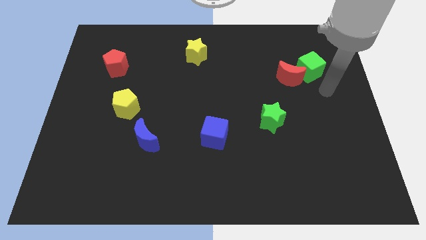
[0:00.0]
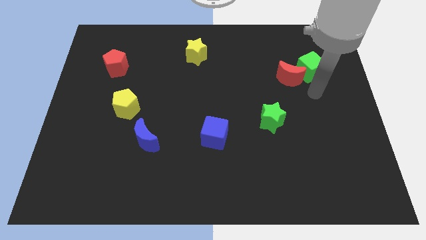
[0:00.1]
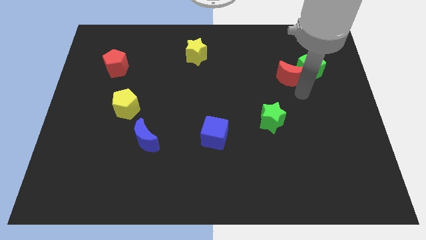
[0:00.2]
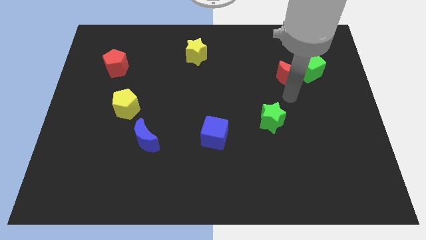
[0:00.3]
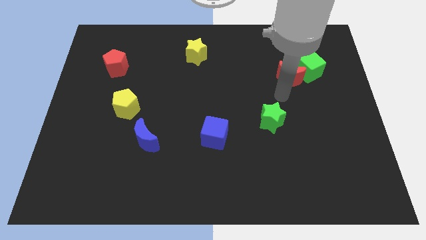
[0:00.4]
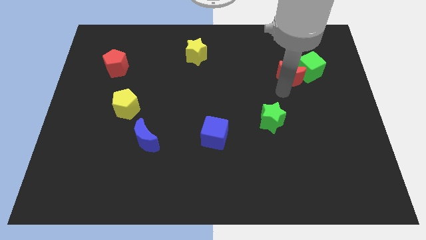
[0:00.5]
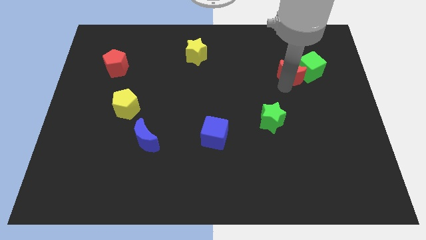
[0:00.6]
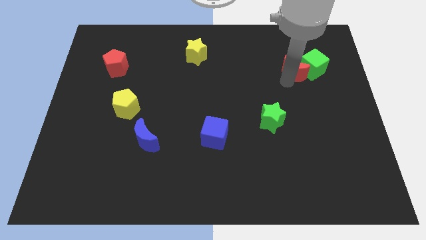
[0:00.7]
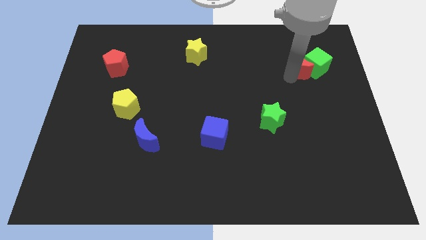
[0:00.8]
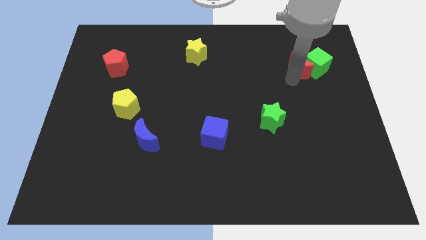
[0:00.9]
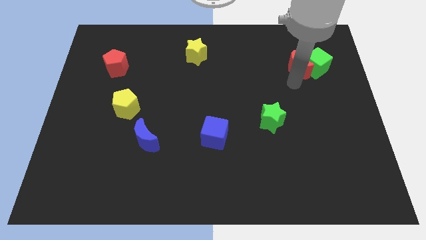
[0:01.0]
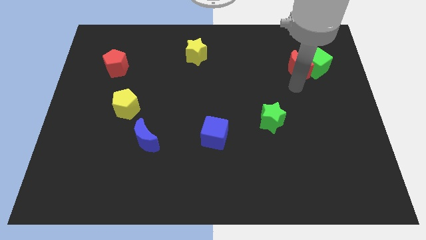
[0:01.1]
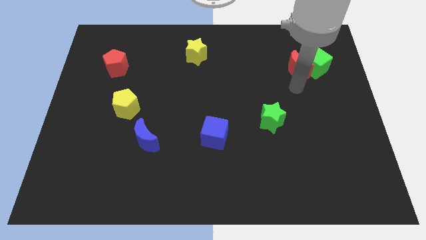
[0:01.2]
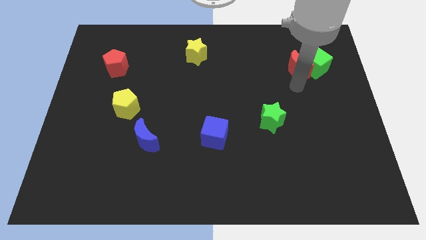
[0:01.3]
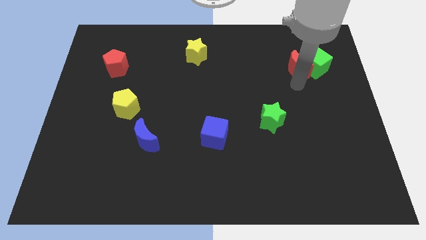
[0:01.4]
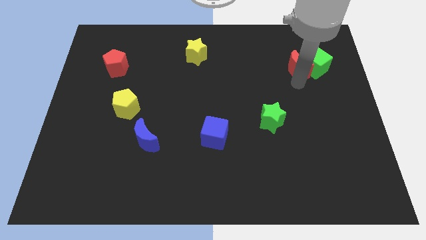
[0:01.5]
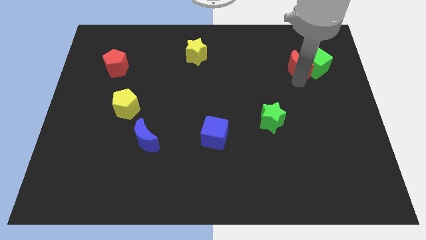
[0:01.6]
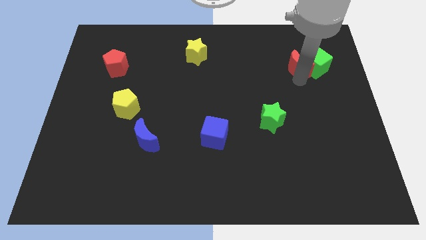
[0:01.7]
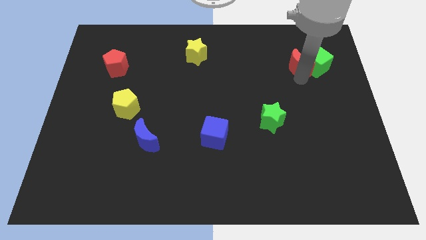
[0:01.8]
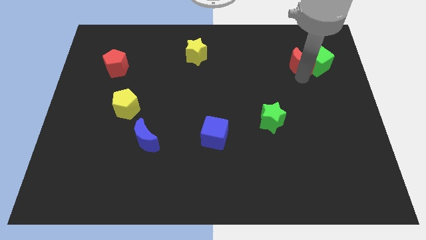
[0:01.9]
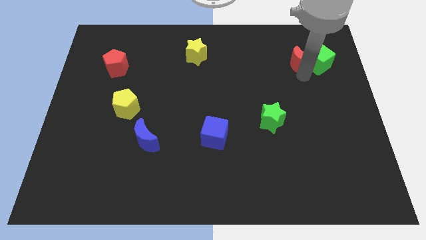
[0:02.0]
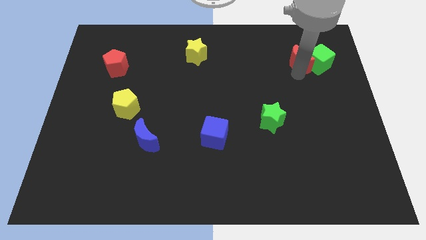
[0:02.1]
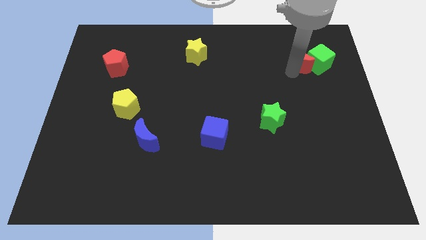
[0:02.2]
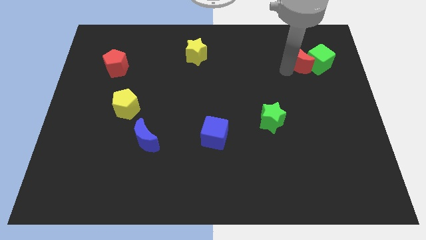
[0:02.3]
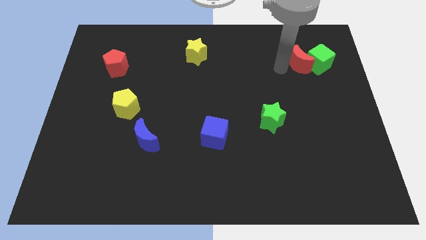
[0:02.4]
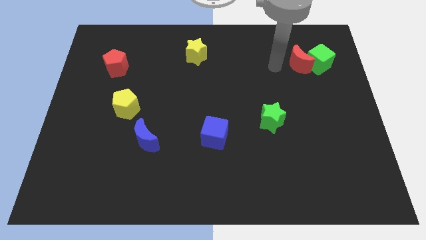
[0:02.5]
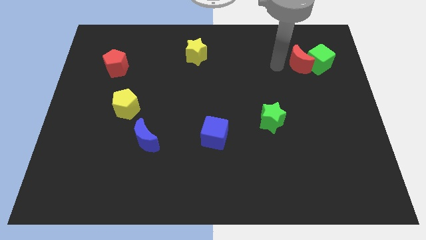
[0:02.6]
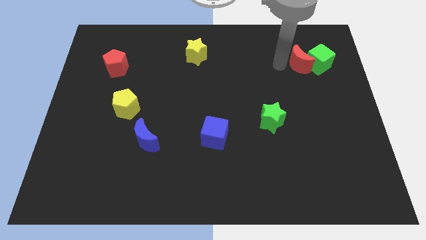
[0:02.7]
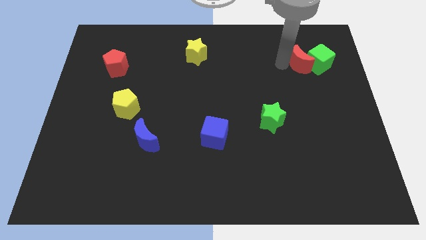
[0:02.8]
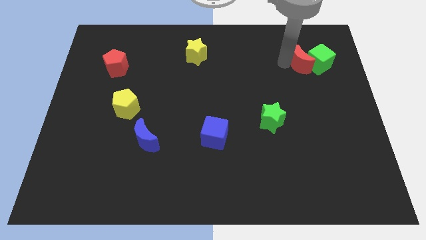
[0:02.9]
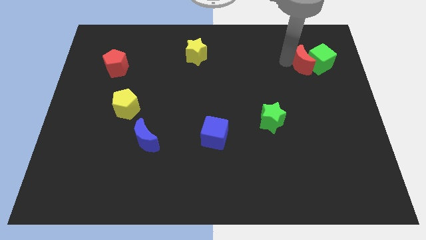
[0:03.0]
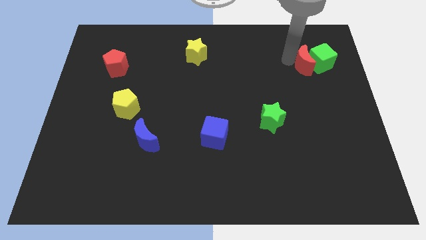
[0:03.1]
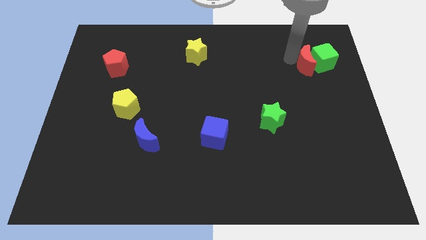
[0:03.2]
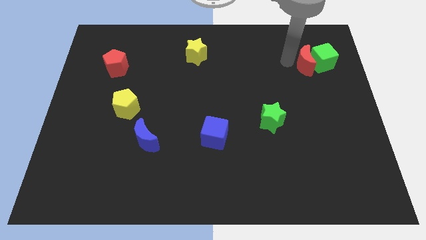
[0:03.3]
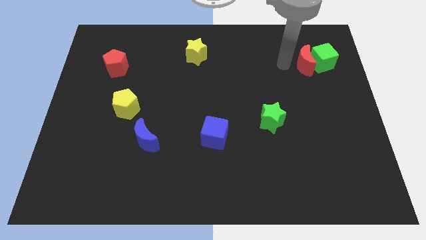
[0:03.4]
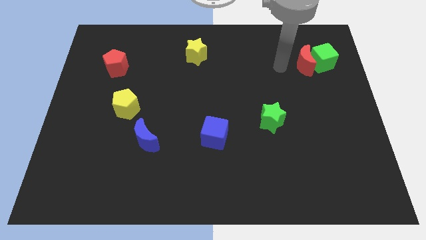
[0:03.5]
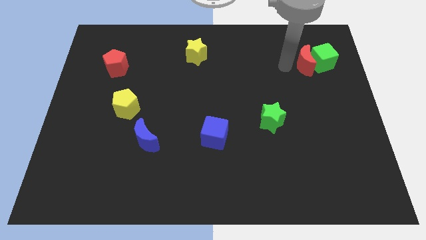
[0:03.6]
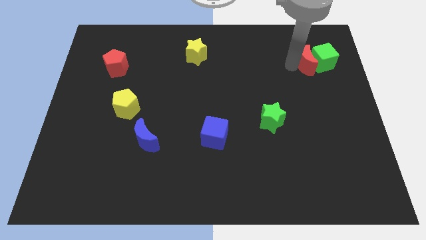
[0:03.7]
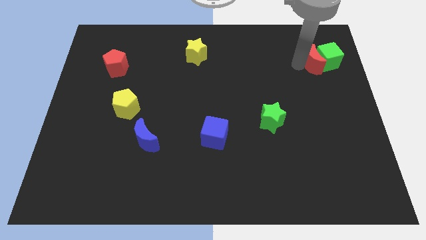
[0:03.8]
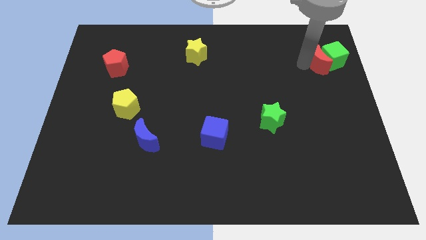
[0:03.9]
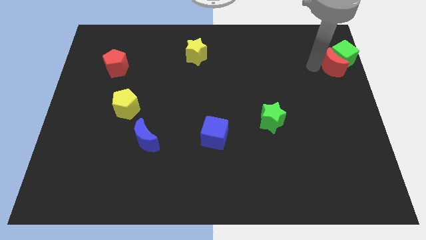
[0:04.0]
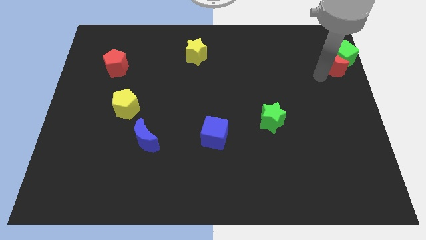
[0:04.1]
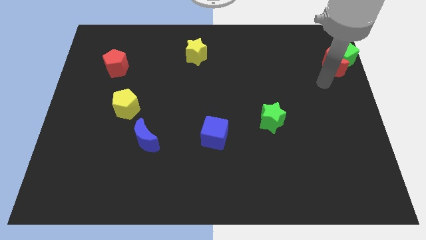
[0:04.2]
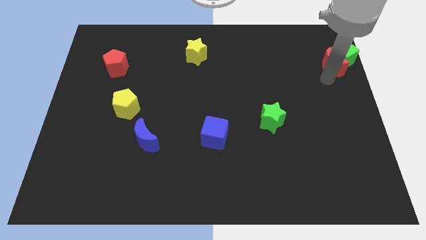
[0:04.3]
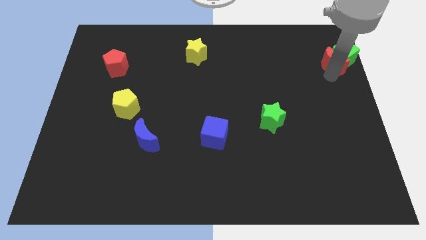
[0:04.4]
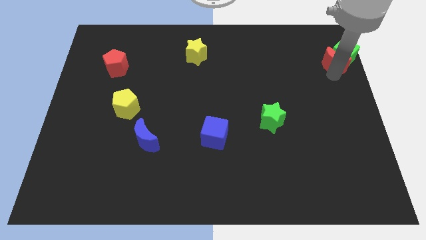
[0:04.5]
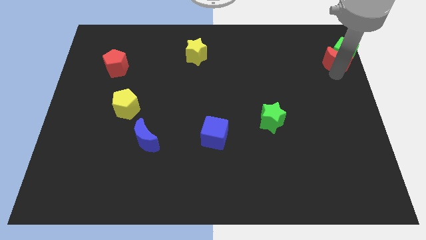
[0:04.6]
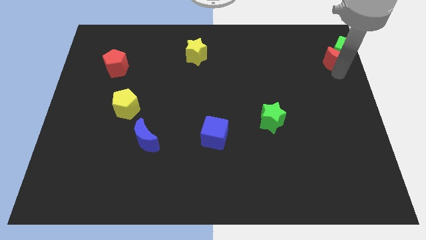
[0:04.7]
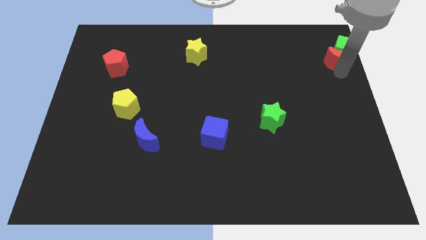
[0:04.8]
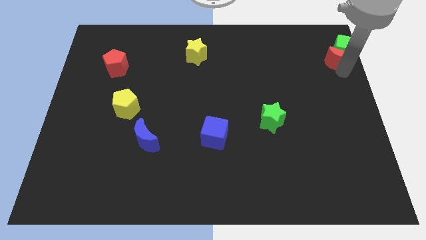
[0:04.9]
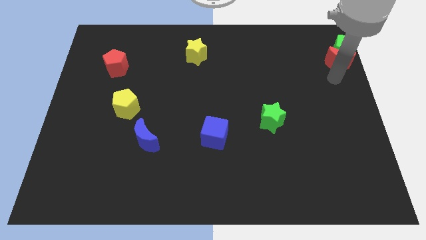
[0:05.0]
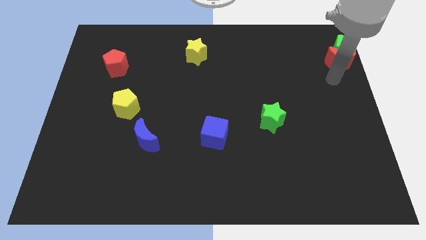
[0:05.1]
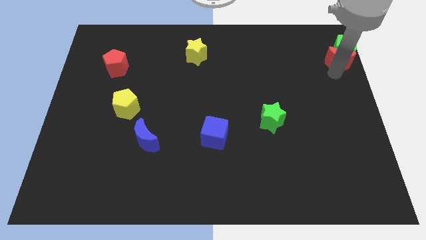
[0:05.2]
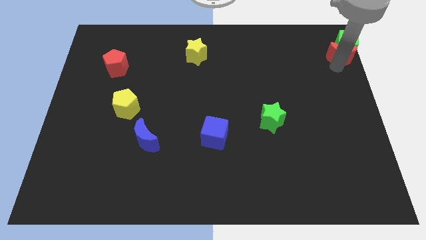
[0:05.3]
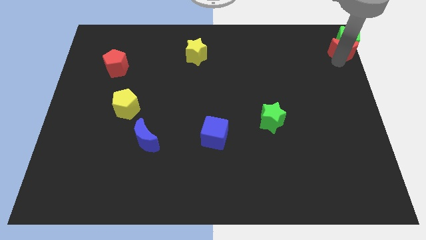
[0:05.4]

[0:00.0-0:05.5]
move the red moon to the top right corner

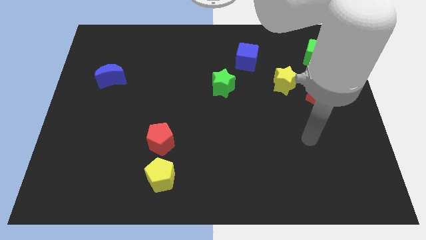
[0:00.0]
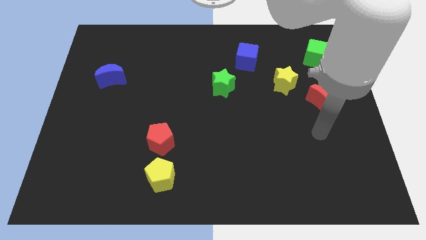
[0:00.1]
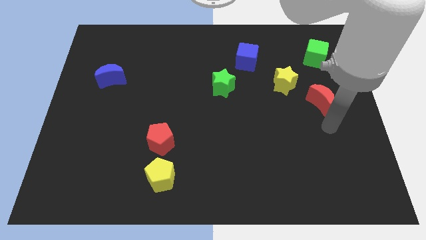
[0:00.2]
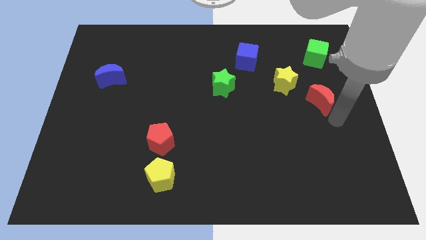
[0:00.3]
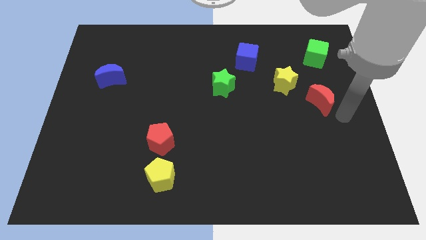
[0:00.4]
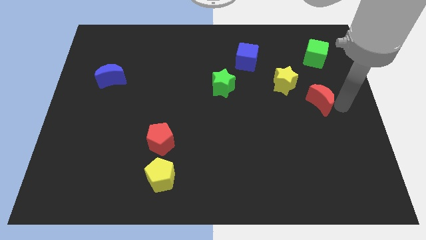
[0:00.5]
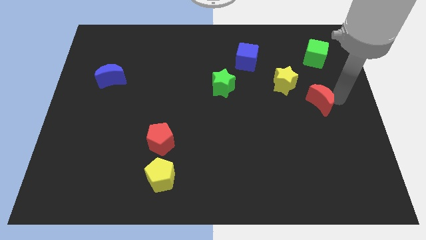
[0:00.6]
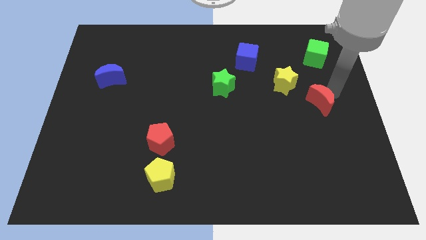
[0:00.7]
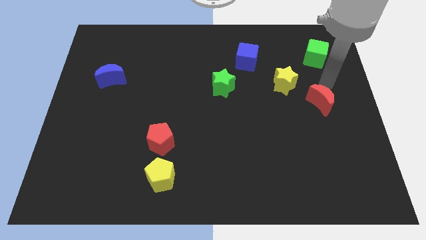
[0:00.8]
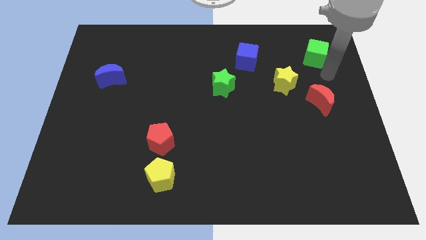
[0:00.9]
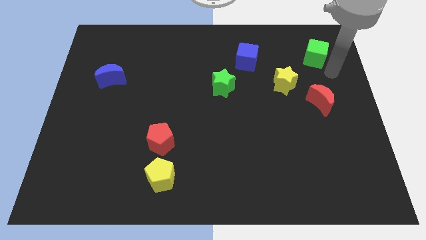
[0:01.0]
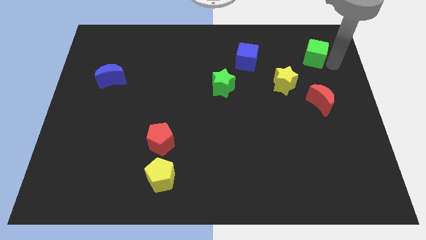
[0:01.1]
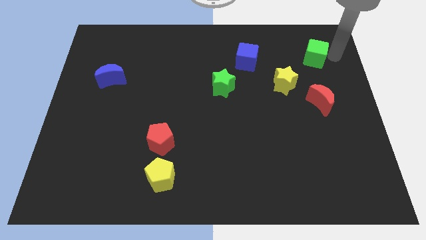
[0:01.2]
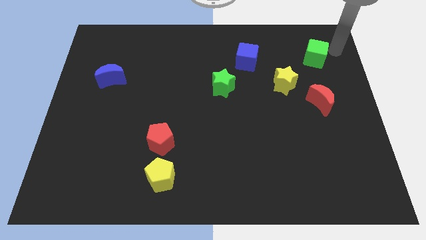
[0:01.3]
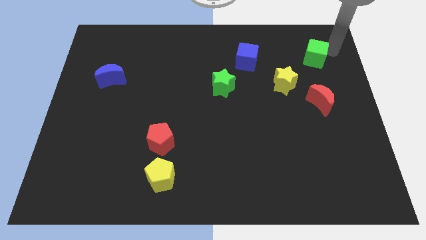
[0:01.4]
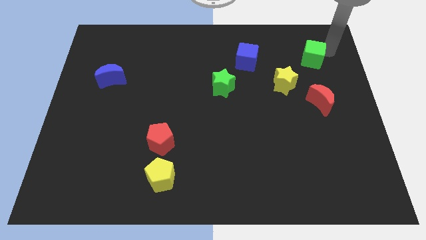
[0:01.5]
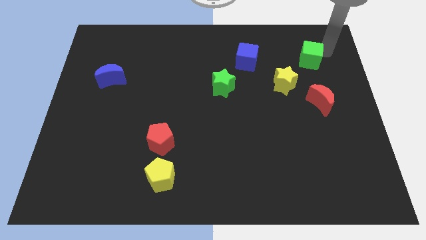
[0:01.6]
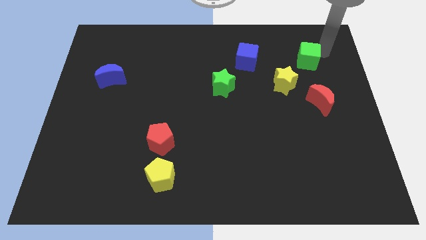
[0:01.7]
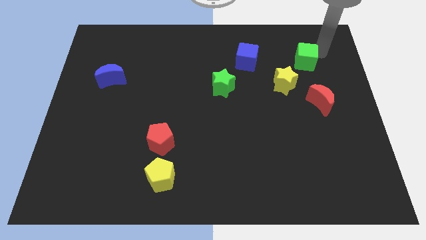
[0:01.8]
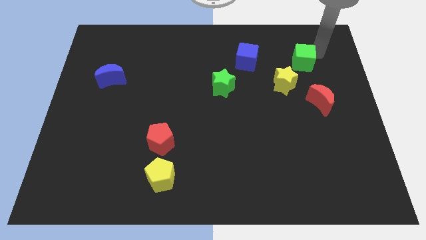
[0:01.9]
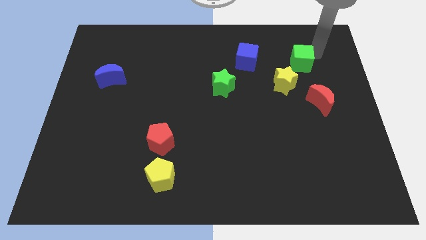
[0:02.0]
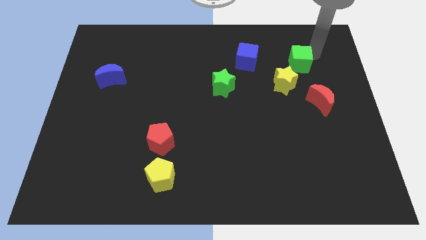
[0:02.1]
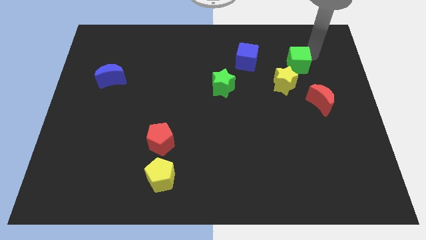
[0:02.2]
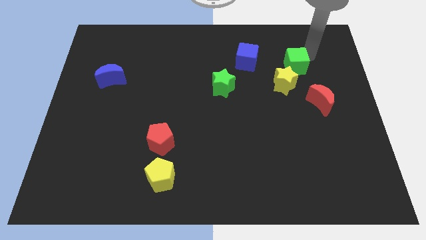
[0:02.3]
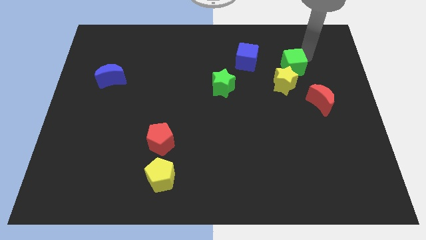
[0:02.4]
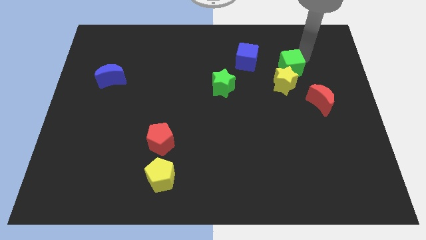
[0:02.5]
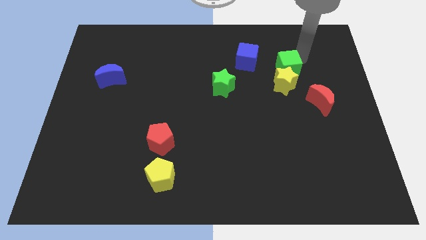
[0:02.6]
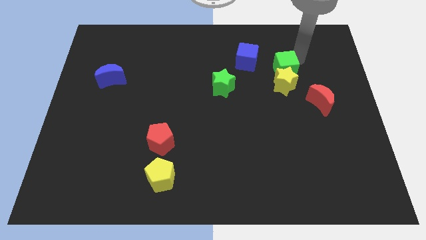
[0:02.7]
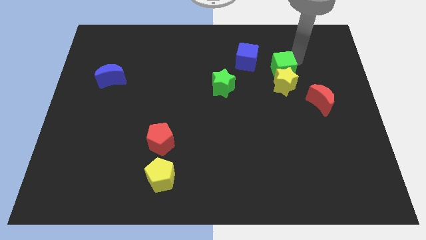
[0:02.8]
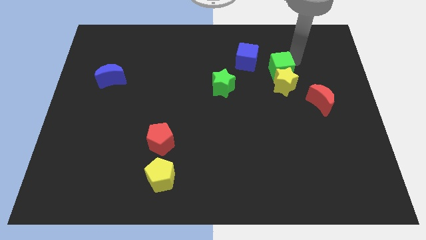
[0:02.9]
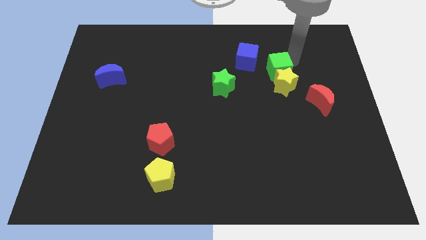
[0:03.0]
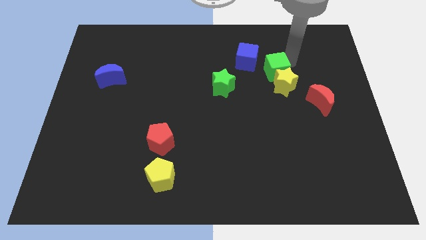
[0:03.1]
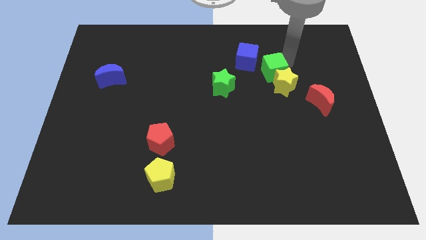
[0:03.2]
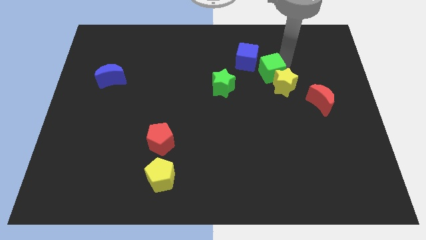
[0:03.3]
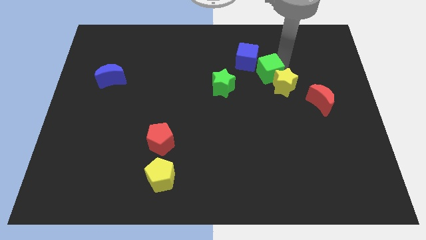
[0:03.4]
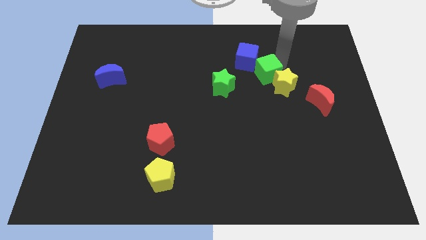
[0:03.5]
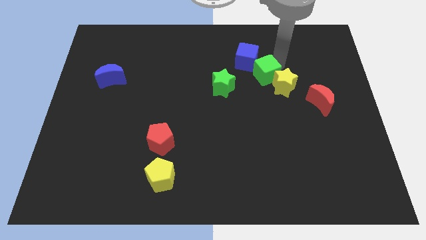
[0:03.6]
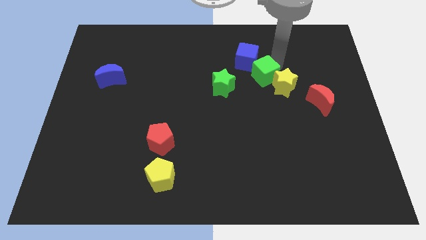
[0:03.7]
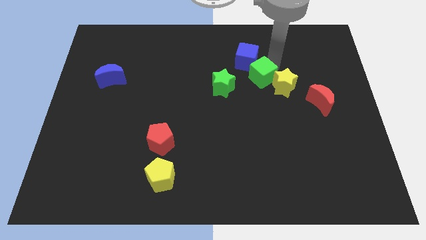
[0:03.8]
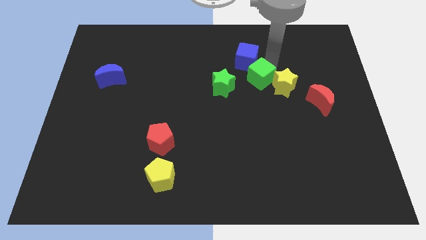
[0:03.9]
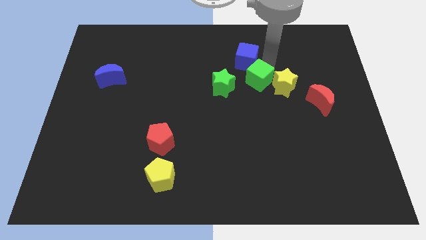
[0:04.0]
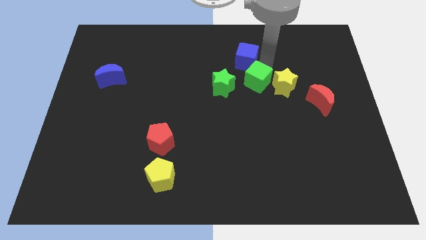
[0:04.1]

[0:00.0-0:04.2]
push the green cube to the center
